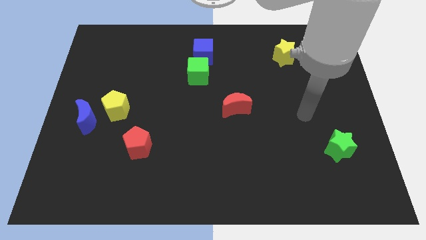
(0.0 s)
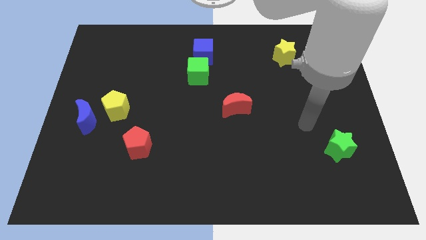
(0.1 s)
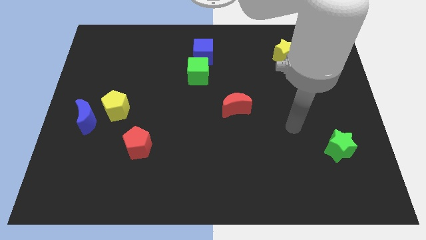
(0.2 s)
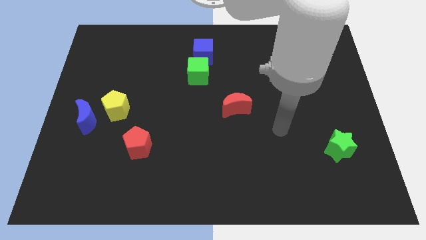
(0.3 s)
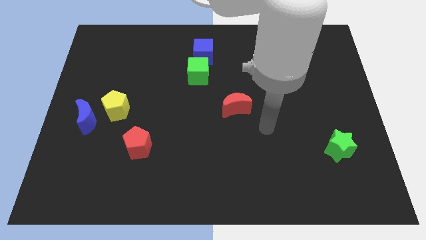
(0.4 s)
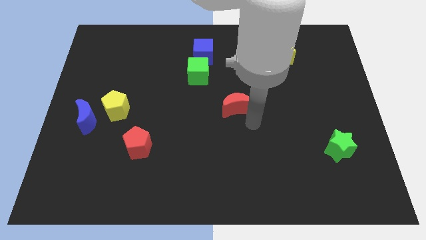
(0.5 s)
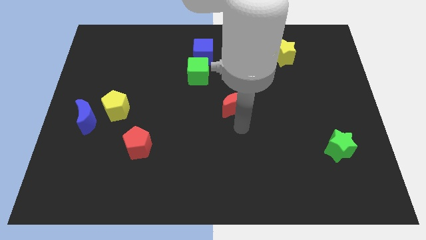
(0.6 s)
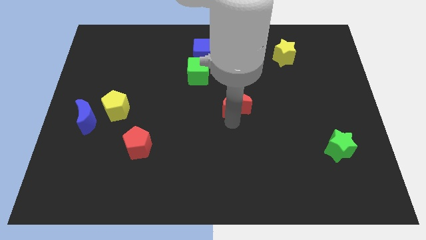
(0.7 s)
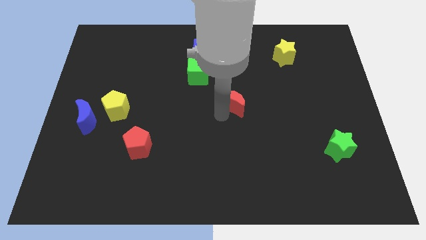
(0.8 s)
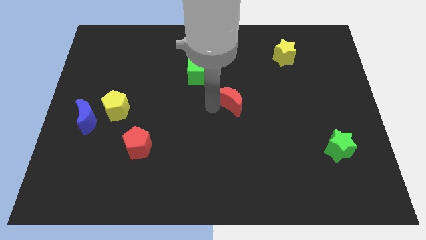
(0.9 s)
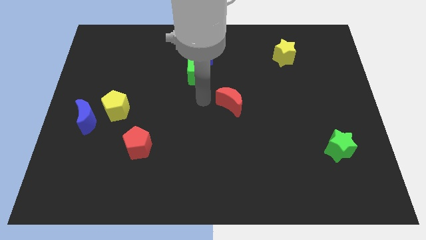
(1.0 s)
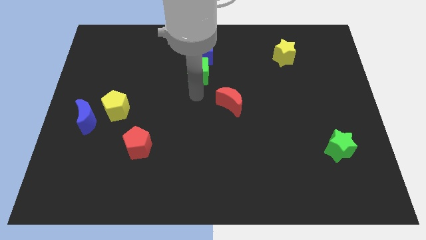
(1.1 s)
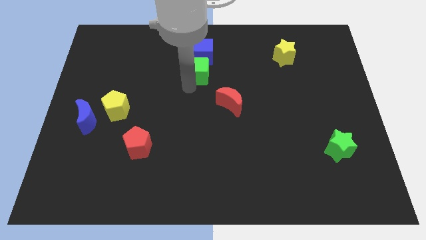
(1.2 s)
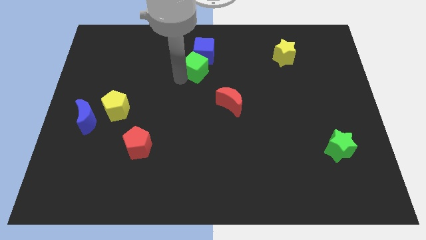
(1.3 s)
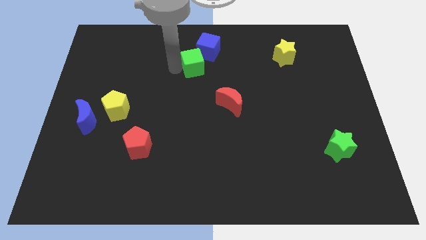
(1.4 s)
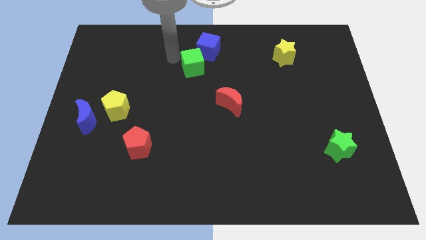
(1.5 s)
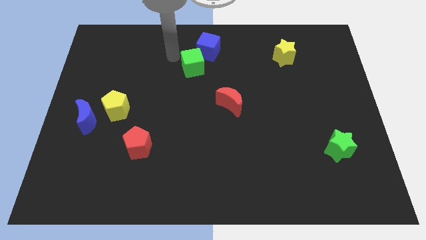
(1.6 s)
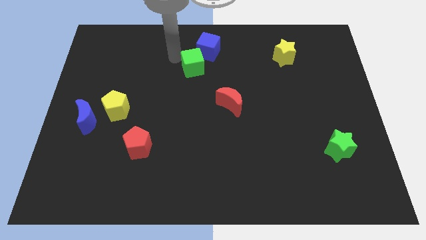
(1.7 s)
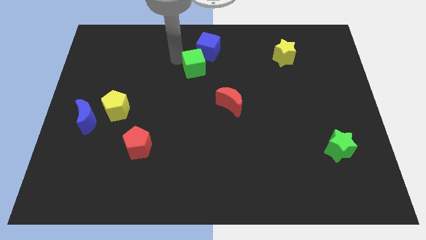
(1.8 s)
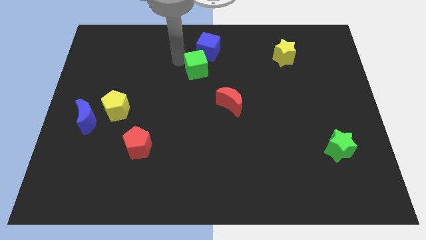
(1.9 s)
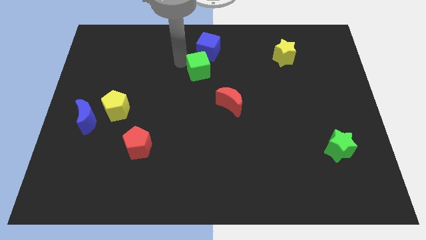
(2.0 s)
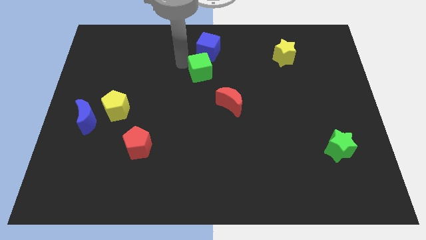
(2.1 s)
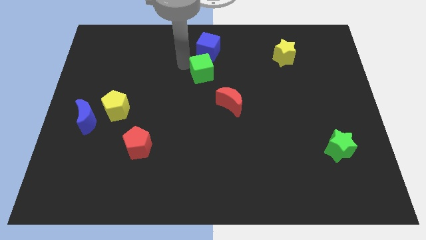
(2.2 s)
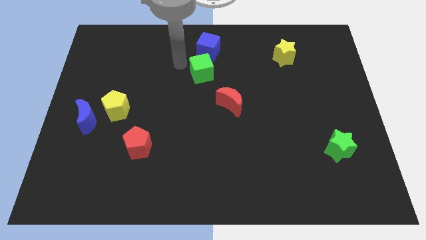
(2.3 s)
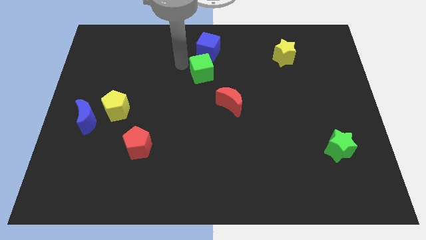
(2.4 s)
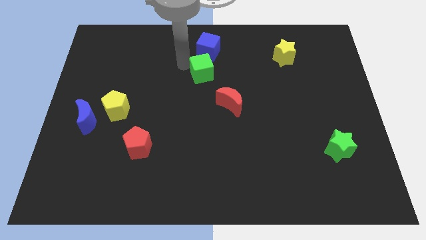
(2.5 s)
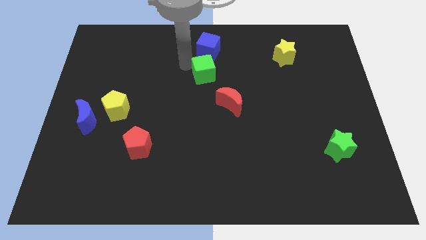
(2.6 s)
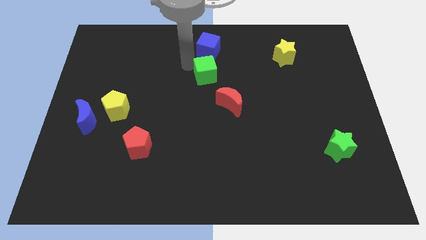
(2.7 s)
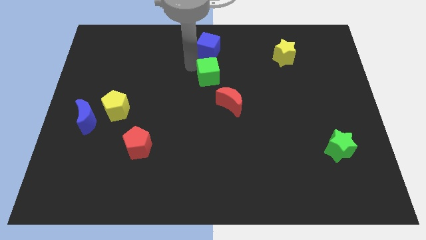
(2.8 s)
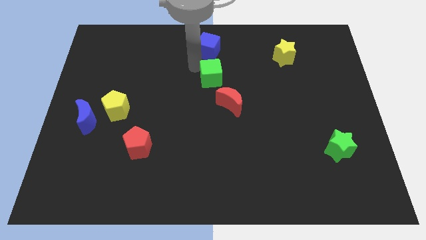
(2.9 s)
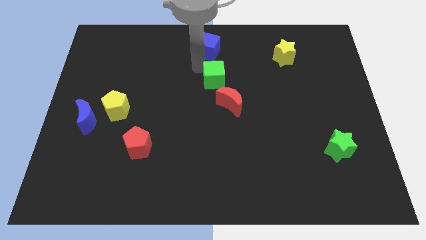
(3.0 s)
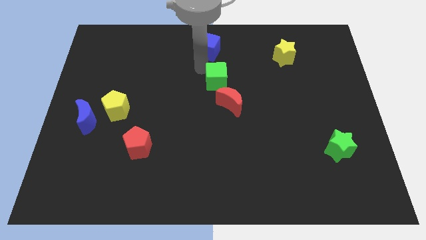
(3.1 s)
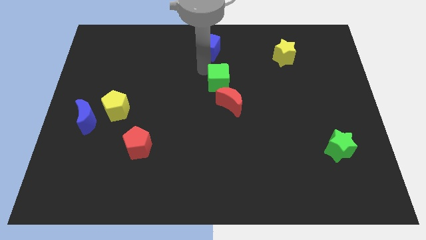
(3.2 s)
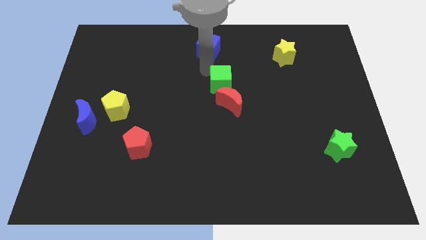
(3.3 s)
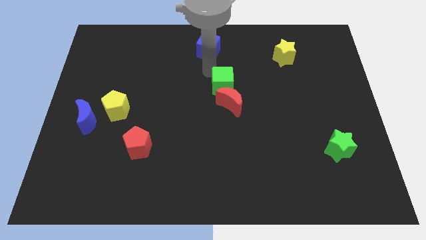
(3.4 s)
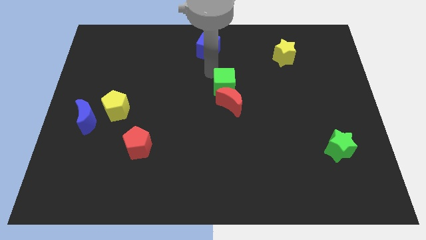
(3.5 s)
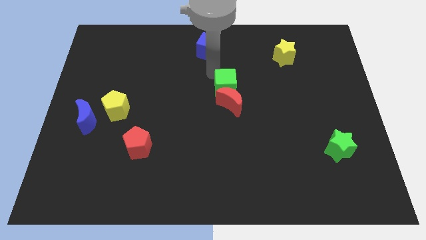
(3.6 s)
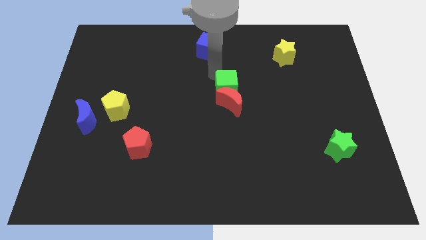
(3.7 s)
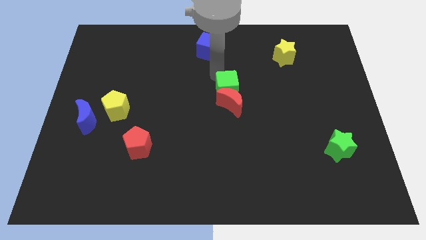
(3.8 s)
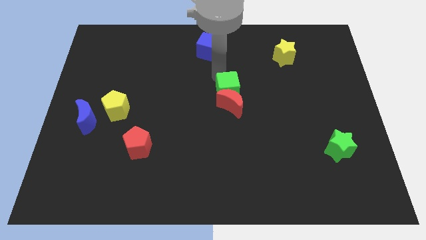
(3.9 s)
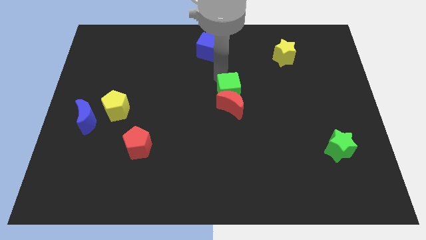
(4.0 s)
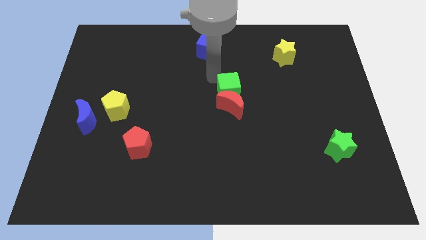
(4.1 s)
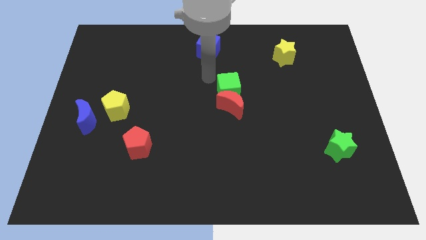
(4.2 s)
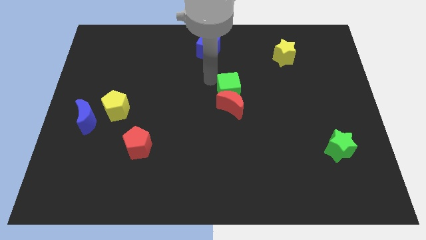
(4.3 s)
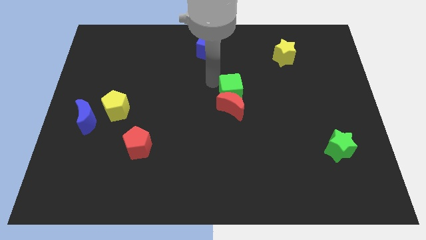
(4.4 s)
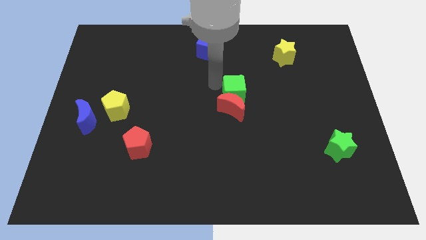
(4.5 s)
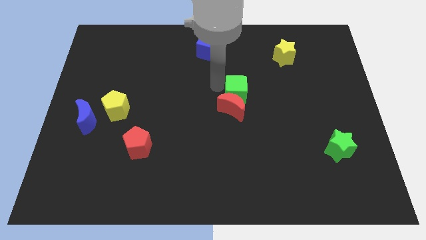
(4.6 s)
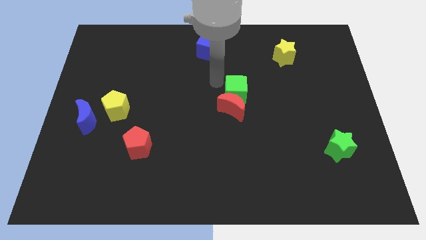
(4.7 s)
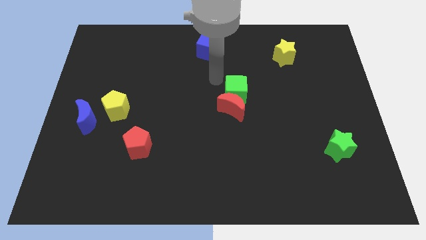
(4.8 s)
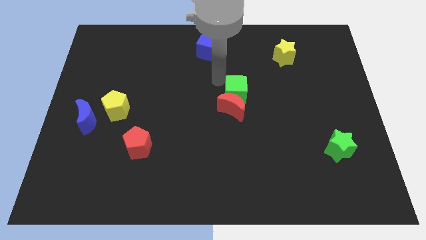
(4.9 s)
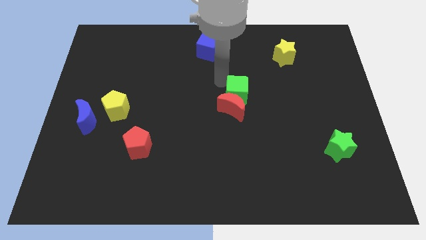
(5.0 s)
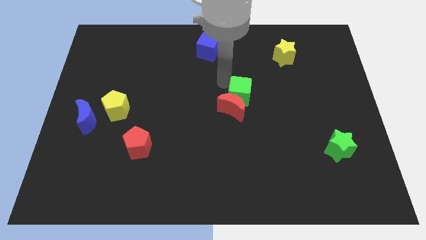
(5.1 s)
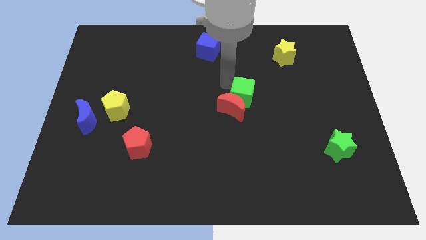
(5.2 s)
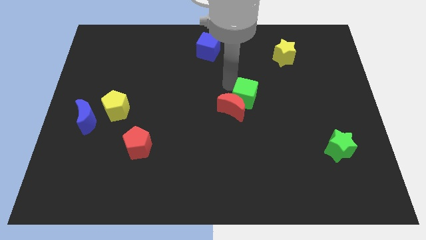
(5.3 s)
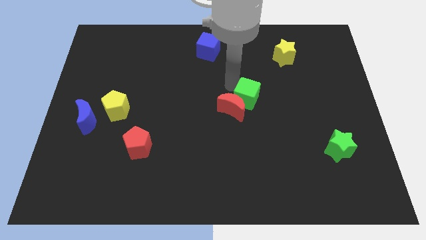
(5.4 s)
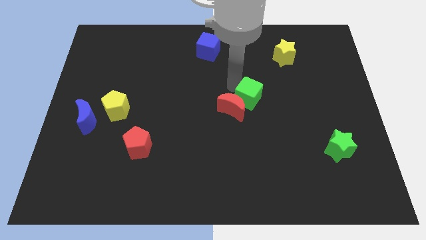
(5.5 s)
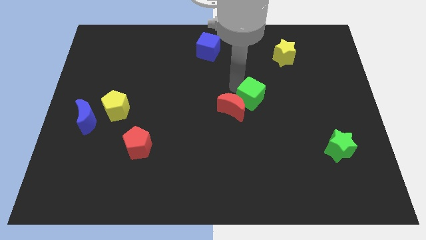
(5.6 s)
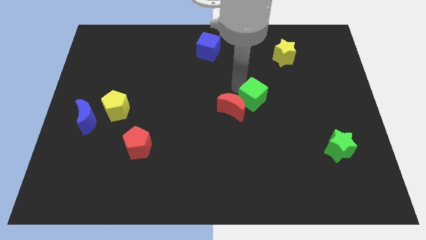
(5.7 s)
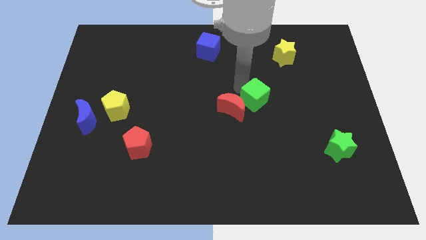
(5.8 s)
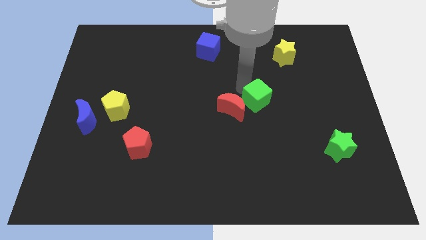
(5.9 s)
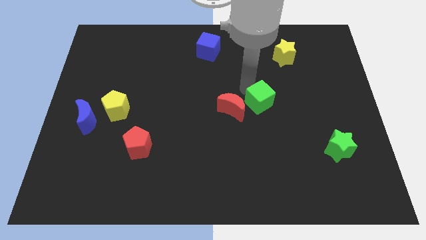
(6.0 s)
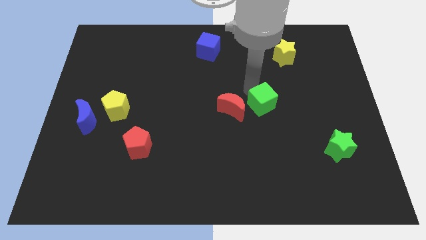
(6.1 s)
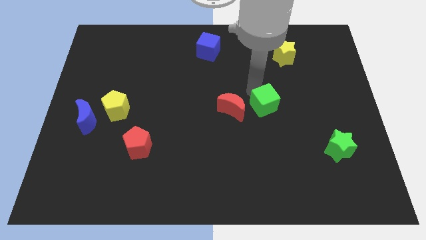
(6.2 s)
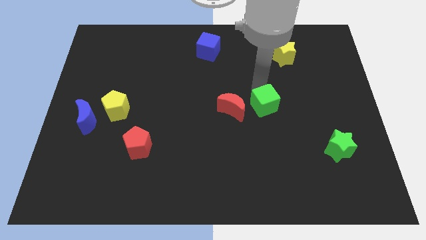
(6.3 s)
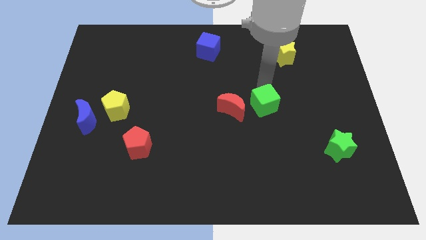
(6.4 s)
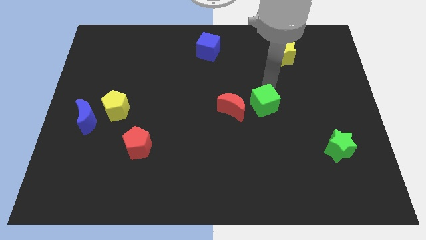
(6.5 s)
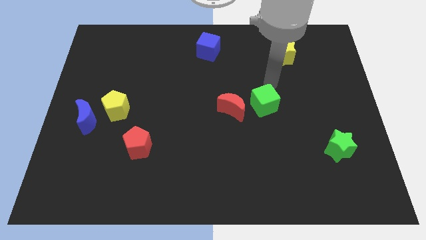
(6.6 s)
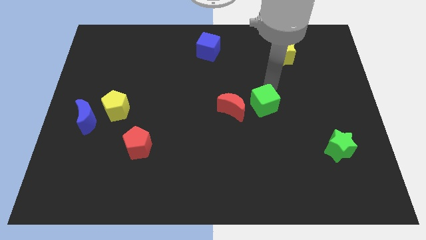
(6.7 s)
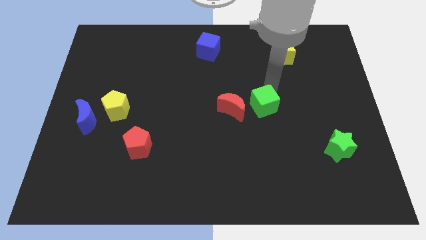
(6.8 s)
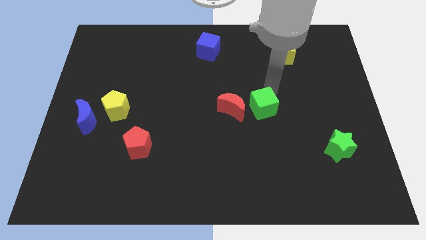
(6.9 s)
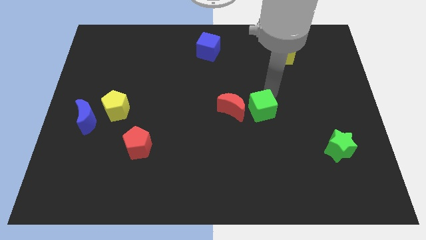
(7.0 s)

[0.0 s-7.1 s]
push the green cube to the bottom right side of the red moon

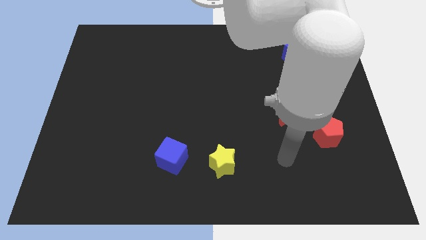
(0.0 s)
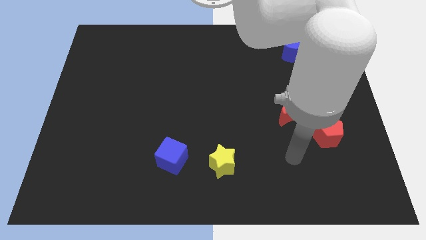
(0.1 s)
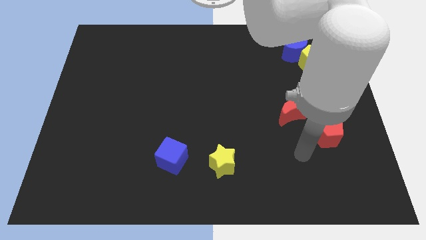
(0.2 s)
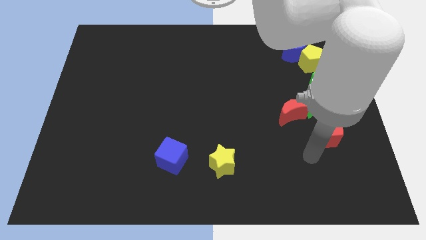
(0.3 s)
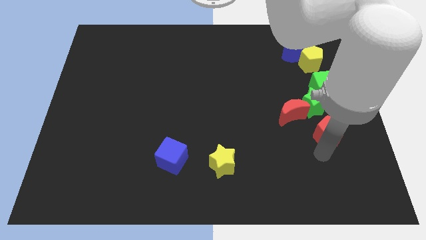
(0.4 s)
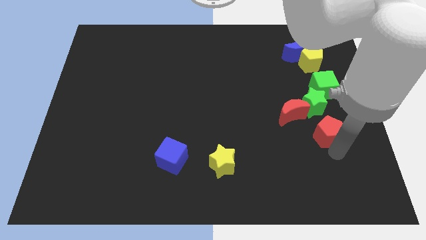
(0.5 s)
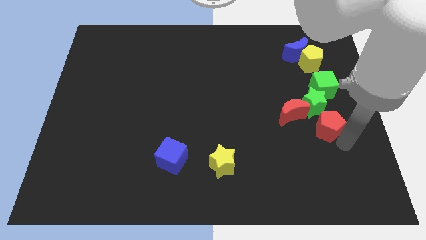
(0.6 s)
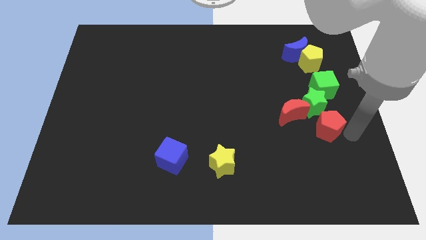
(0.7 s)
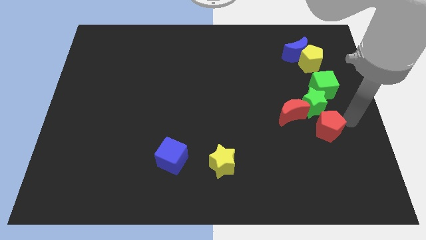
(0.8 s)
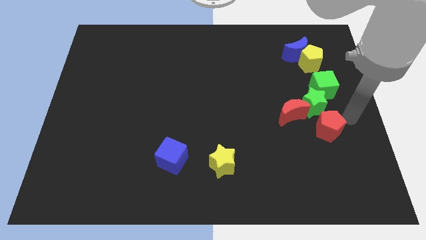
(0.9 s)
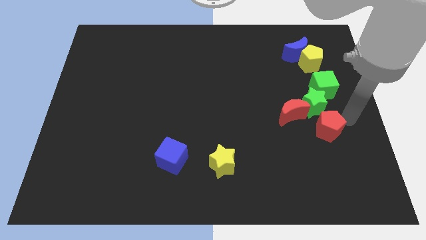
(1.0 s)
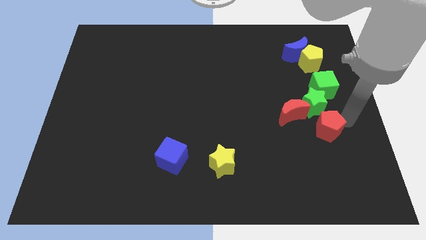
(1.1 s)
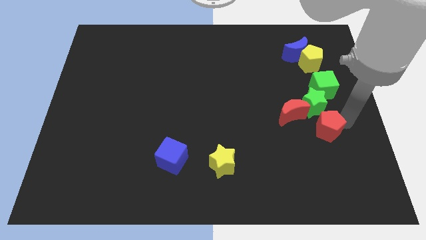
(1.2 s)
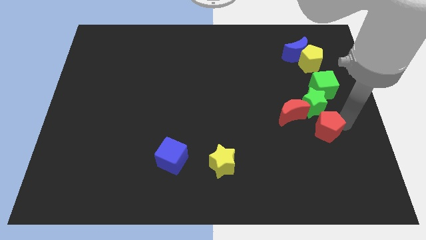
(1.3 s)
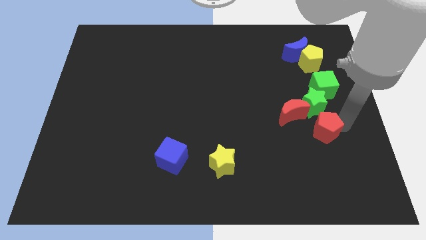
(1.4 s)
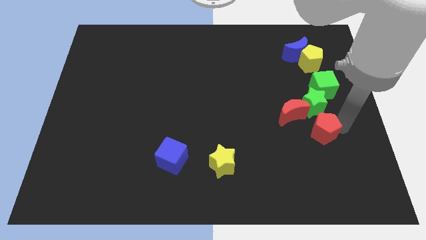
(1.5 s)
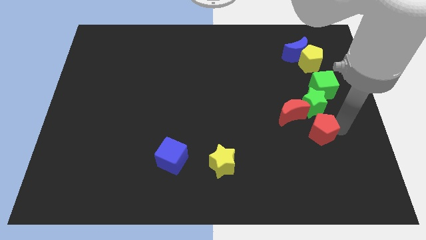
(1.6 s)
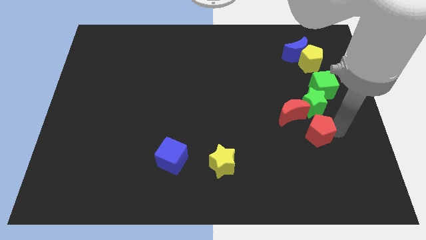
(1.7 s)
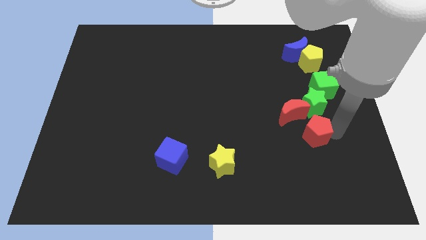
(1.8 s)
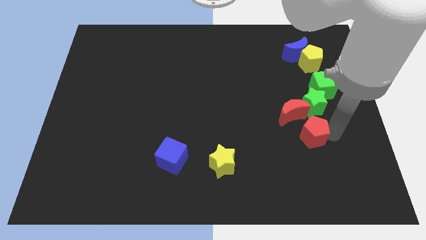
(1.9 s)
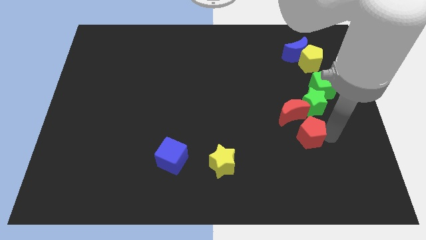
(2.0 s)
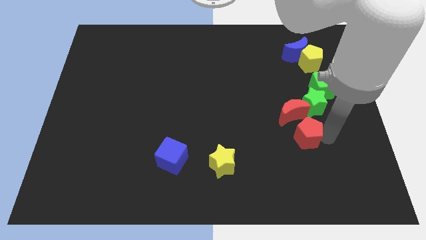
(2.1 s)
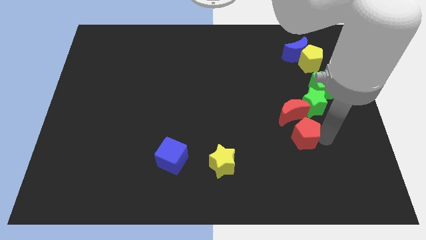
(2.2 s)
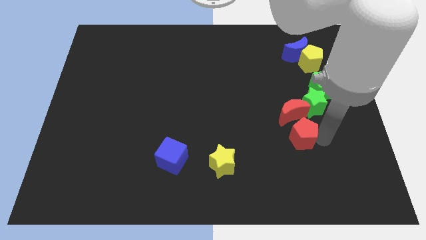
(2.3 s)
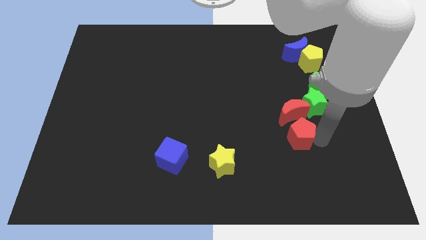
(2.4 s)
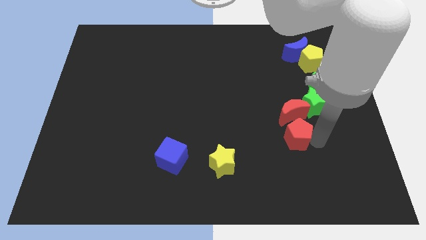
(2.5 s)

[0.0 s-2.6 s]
slide the red pentagon diagonally down and to the left of the red moon
